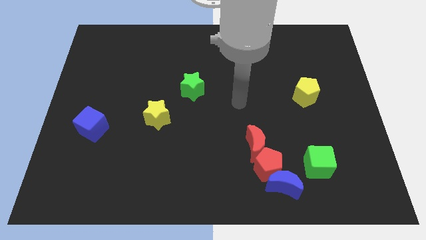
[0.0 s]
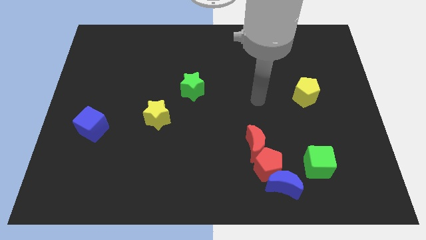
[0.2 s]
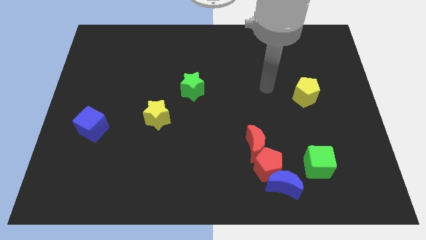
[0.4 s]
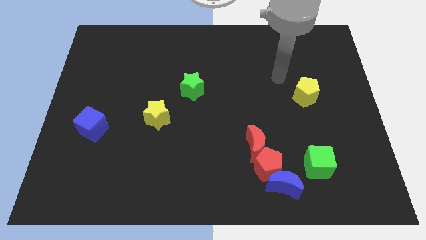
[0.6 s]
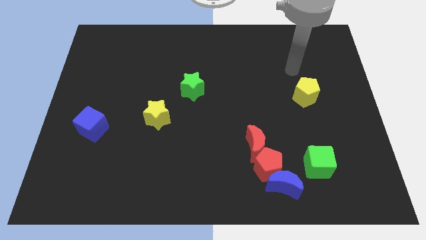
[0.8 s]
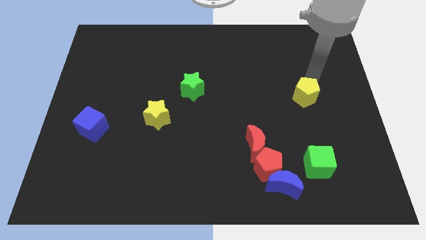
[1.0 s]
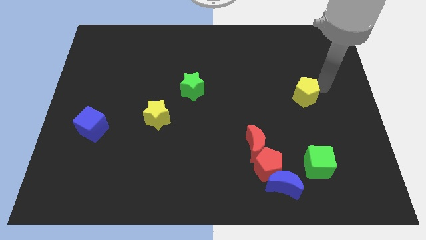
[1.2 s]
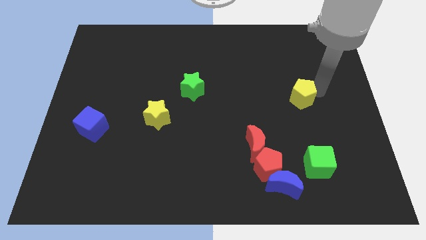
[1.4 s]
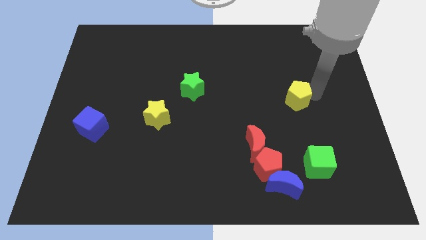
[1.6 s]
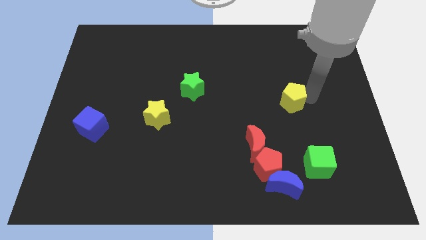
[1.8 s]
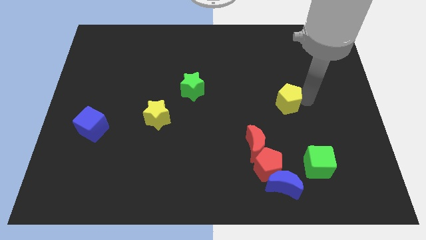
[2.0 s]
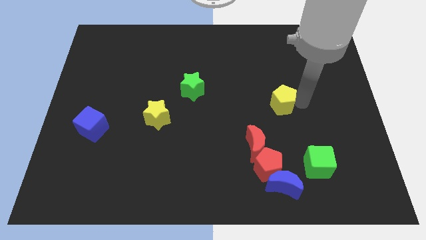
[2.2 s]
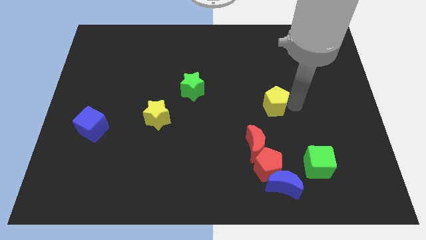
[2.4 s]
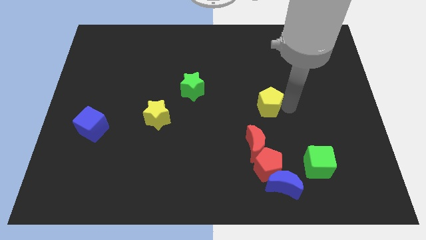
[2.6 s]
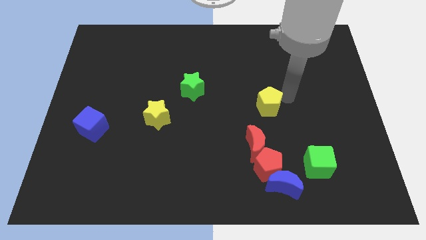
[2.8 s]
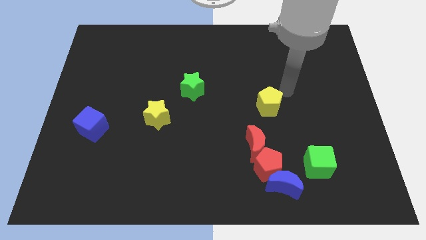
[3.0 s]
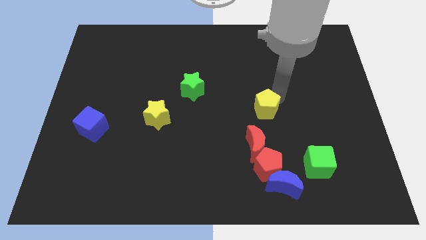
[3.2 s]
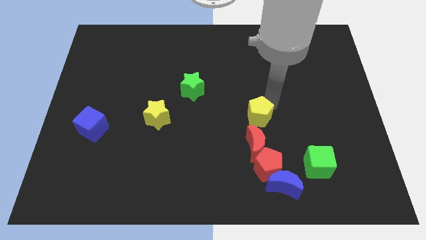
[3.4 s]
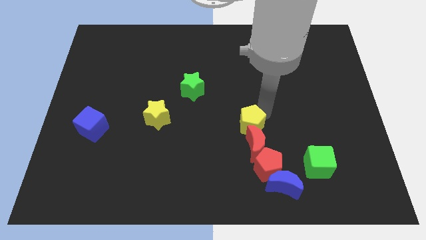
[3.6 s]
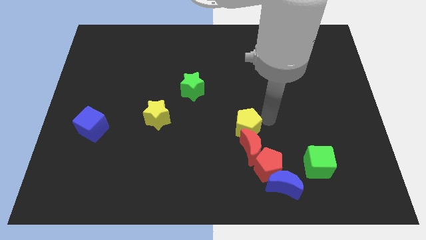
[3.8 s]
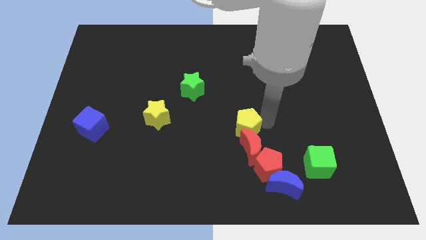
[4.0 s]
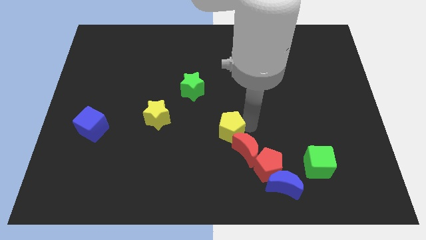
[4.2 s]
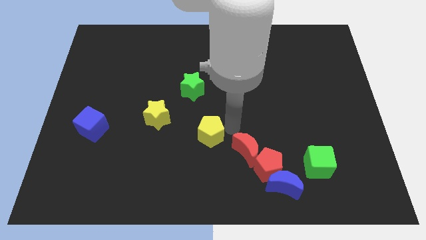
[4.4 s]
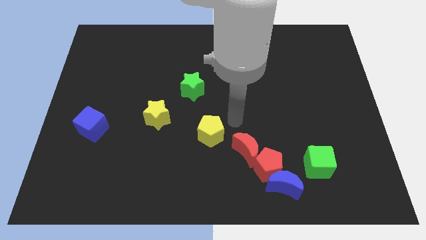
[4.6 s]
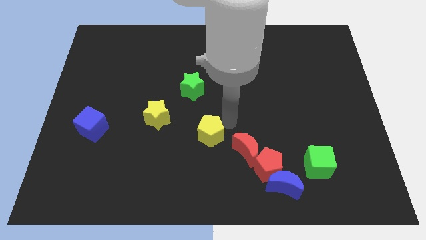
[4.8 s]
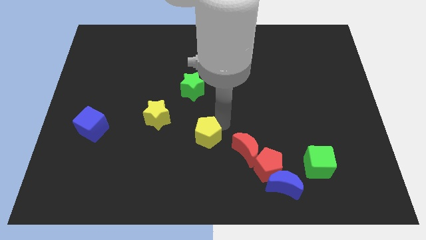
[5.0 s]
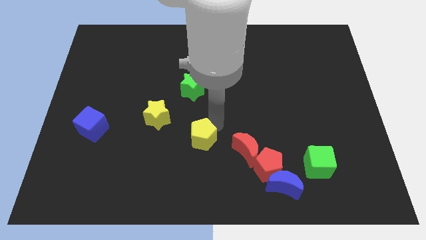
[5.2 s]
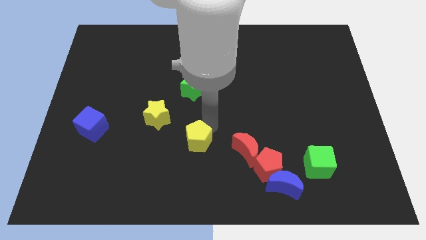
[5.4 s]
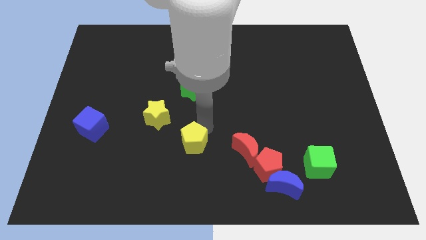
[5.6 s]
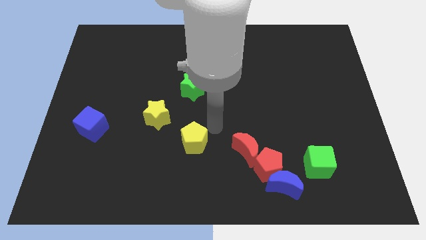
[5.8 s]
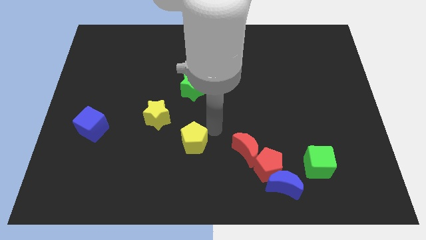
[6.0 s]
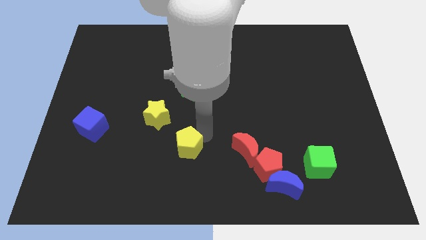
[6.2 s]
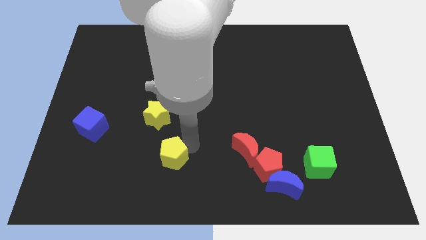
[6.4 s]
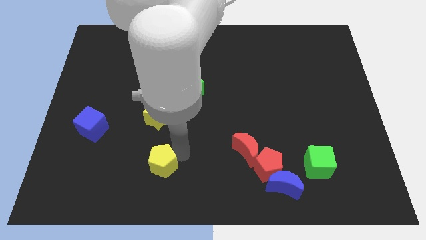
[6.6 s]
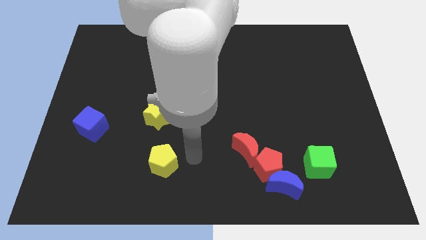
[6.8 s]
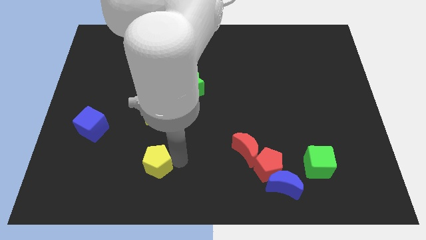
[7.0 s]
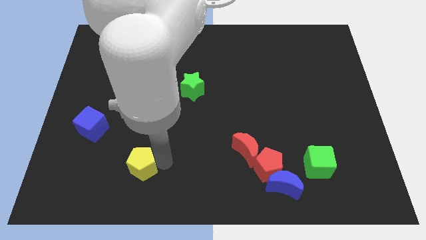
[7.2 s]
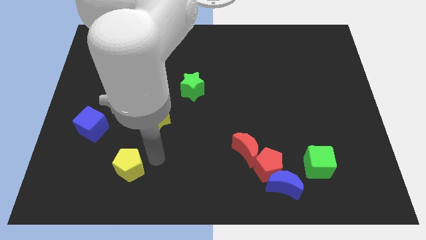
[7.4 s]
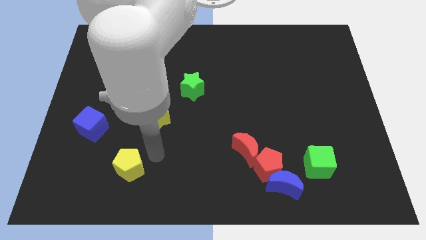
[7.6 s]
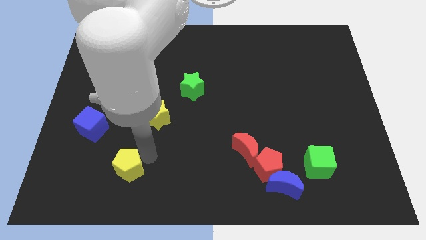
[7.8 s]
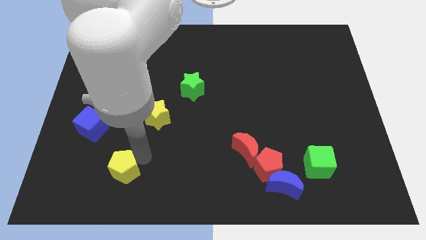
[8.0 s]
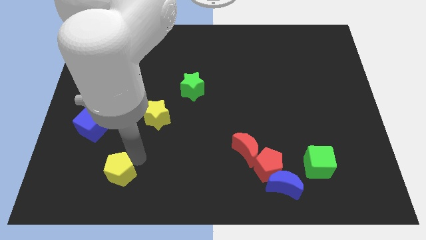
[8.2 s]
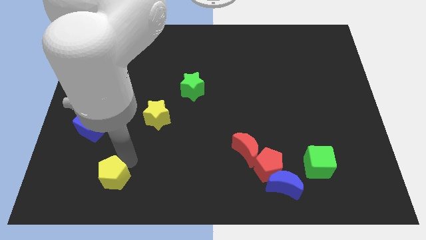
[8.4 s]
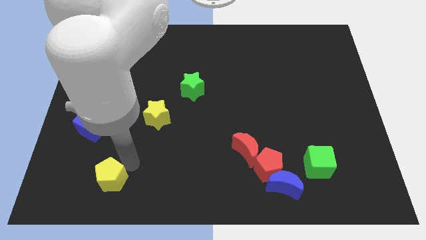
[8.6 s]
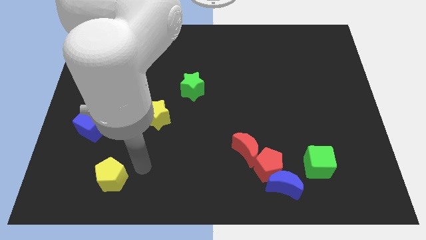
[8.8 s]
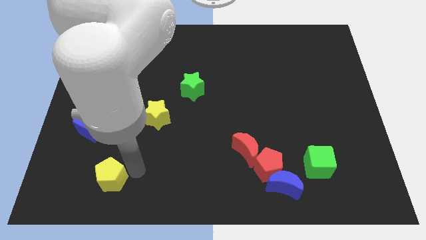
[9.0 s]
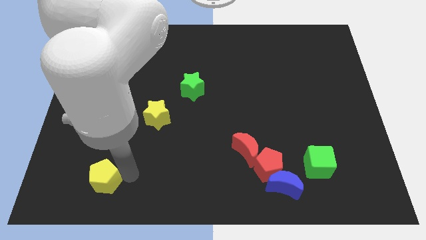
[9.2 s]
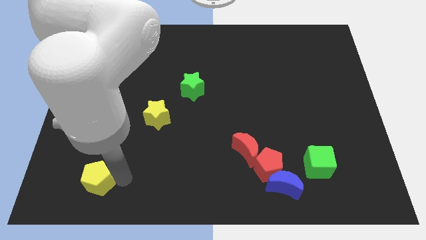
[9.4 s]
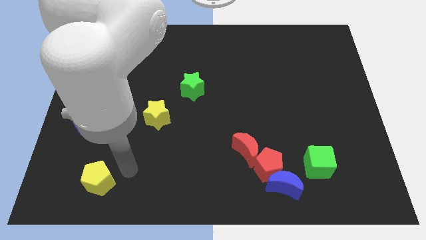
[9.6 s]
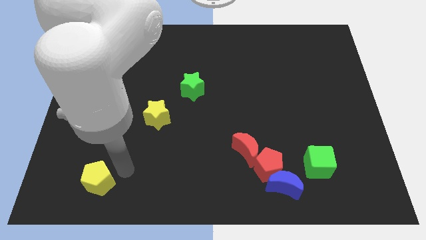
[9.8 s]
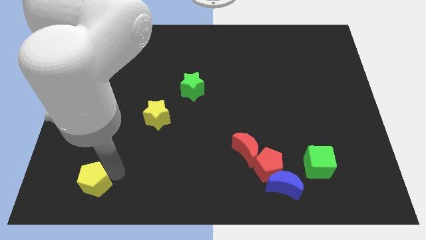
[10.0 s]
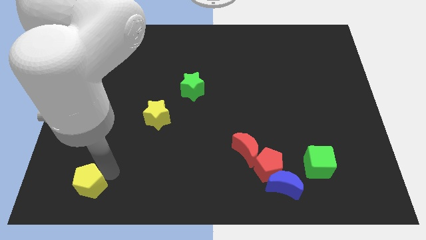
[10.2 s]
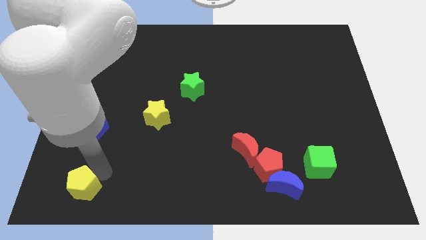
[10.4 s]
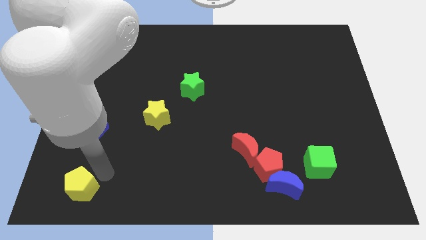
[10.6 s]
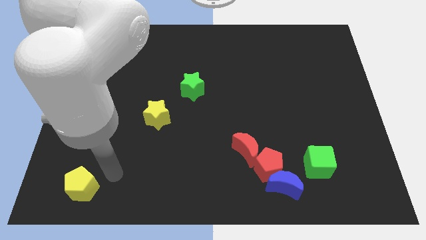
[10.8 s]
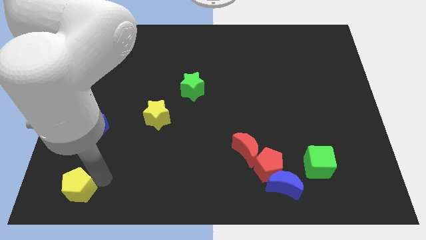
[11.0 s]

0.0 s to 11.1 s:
put the yellow pentagon to the bottom left corner

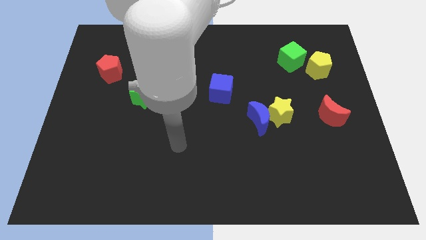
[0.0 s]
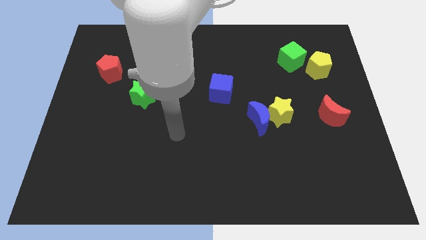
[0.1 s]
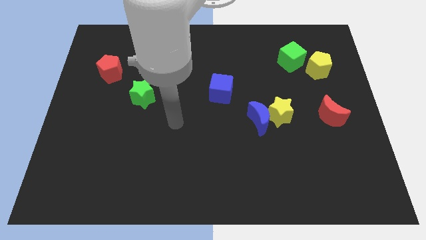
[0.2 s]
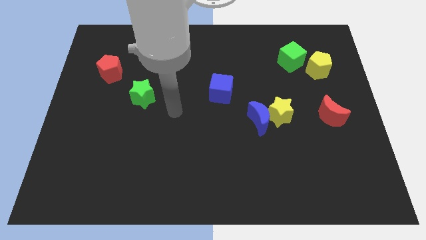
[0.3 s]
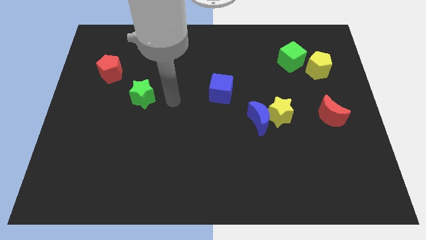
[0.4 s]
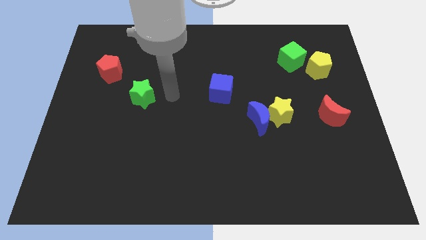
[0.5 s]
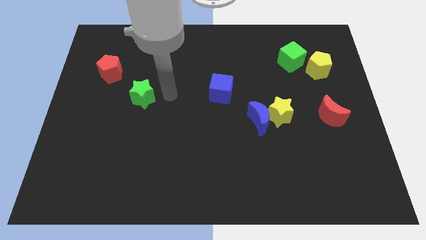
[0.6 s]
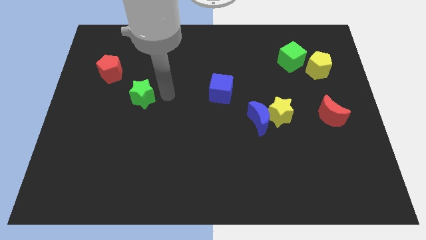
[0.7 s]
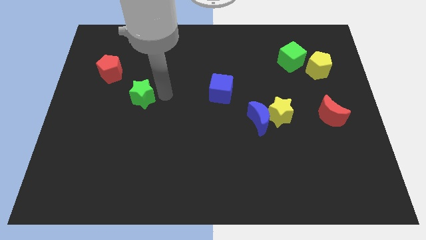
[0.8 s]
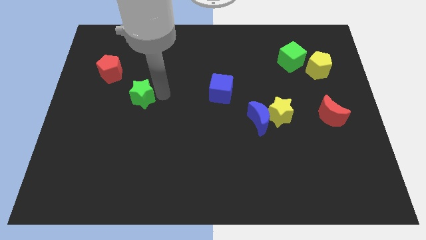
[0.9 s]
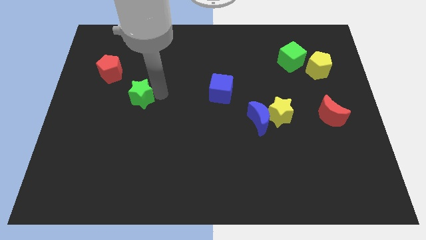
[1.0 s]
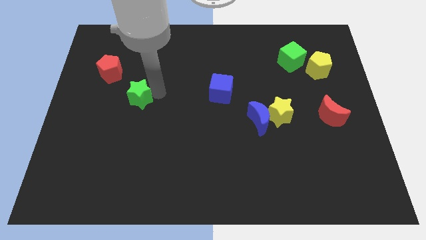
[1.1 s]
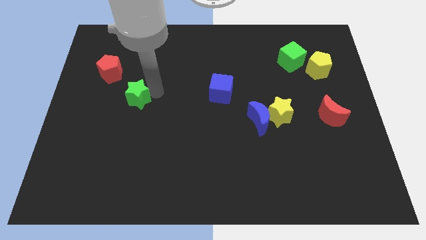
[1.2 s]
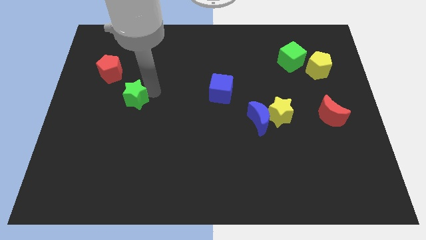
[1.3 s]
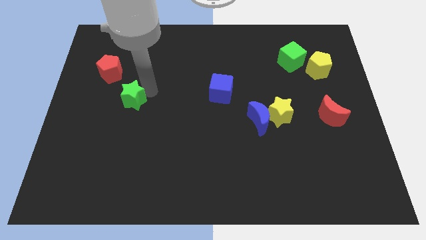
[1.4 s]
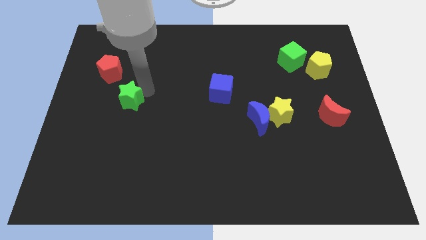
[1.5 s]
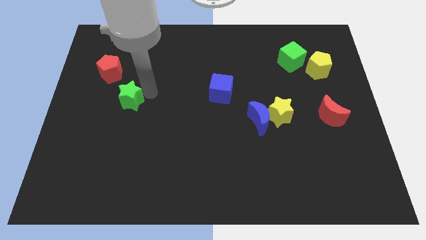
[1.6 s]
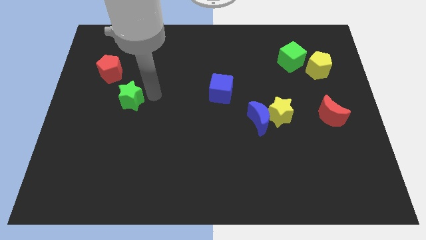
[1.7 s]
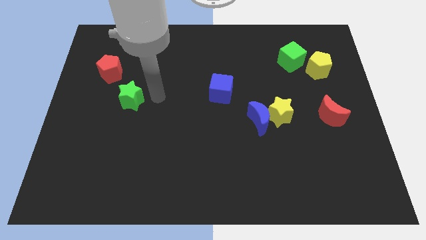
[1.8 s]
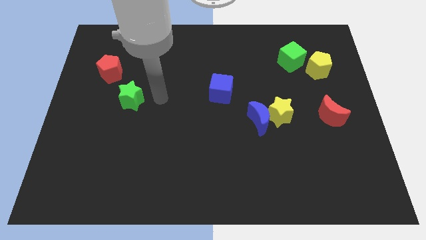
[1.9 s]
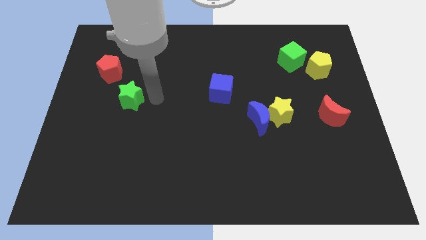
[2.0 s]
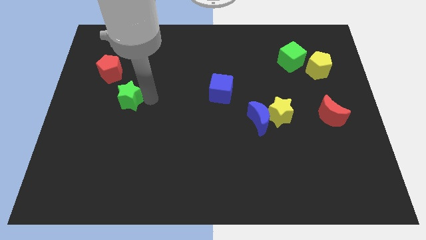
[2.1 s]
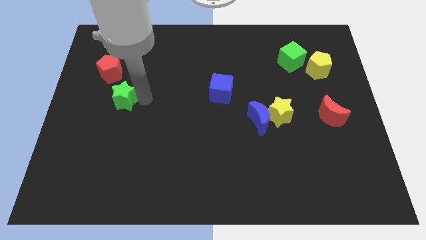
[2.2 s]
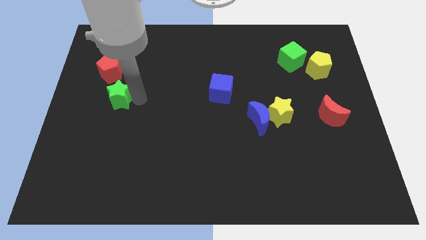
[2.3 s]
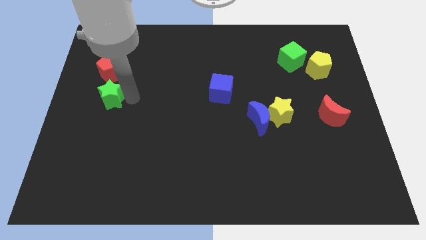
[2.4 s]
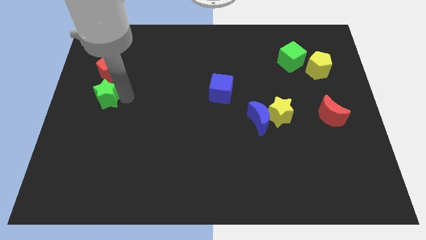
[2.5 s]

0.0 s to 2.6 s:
put the green star to the left side of the board
